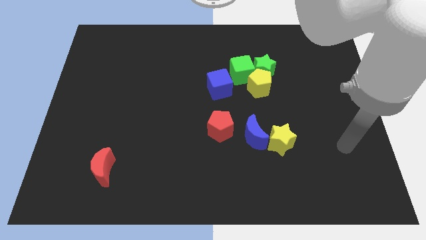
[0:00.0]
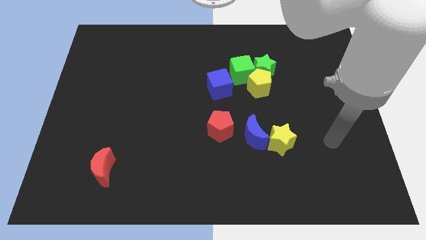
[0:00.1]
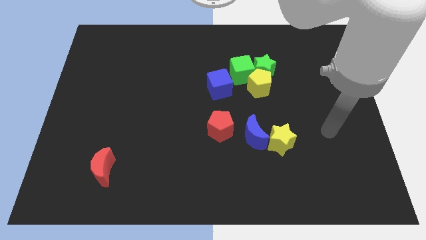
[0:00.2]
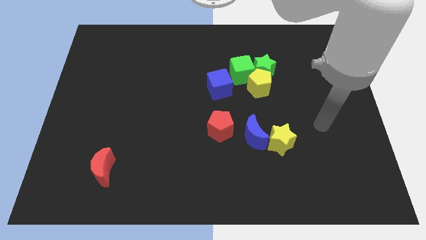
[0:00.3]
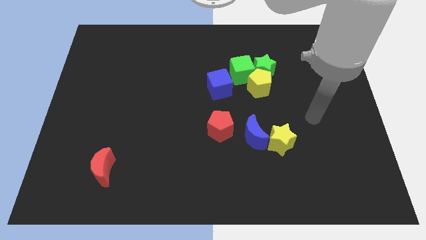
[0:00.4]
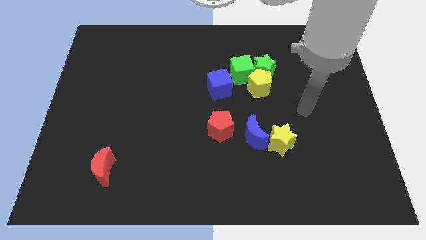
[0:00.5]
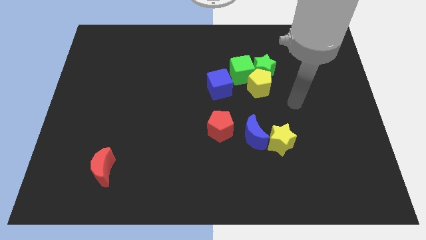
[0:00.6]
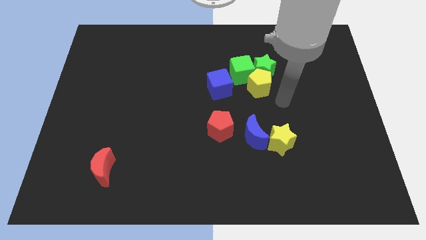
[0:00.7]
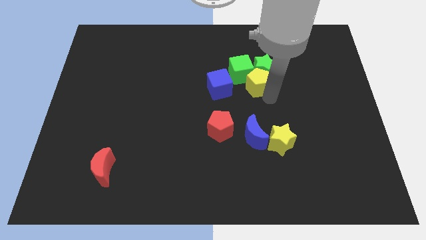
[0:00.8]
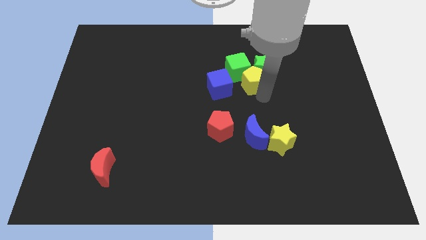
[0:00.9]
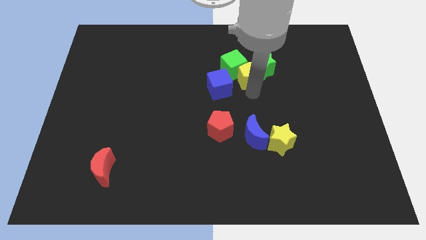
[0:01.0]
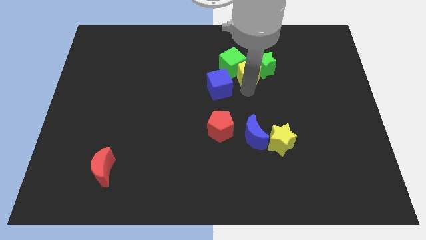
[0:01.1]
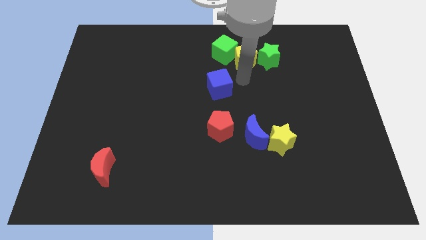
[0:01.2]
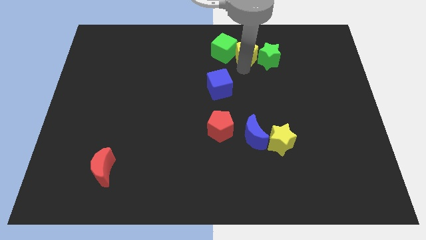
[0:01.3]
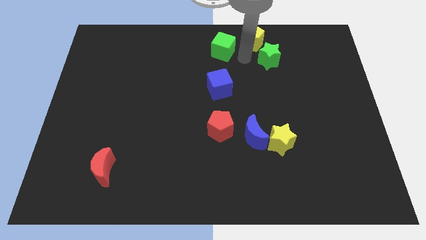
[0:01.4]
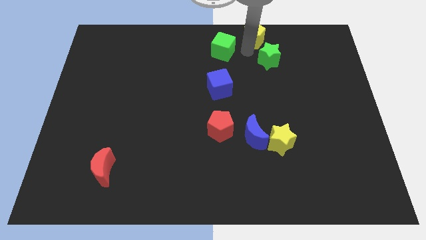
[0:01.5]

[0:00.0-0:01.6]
move the green star away from the yellow pentagon and green cube

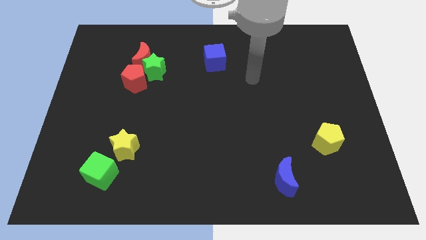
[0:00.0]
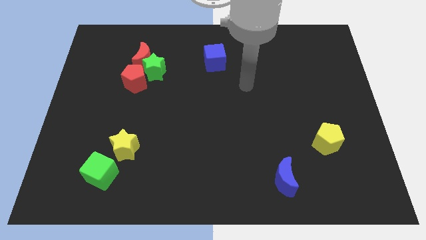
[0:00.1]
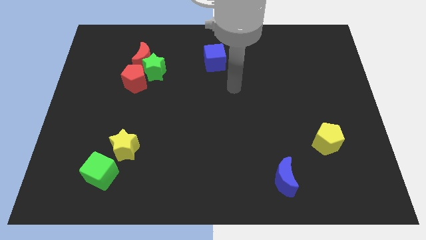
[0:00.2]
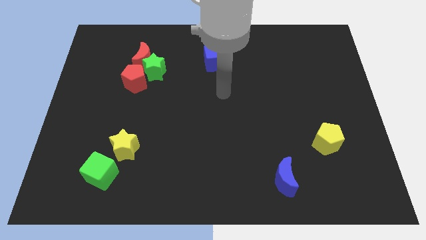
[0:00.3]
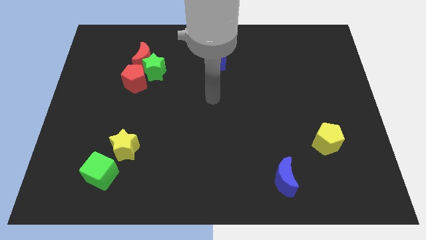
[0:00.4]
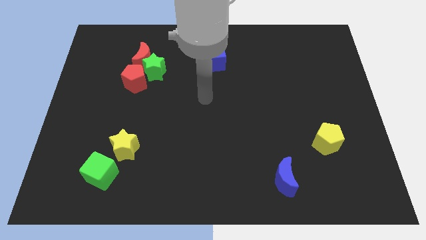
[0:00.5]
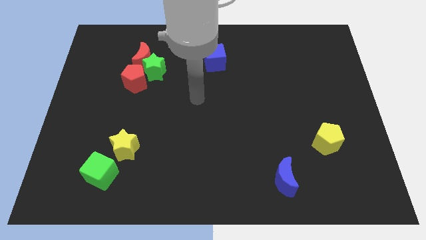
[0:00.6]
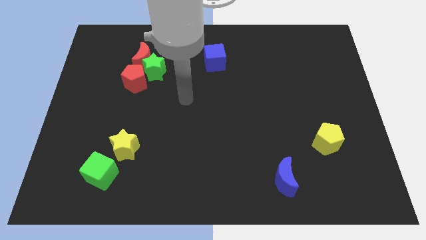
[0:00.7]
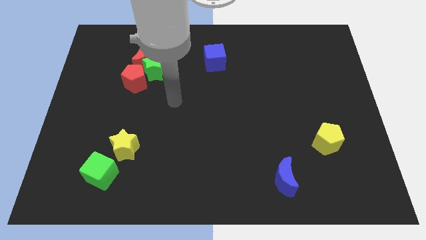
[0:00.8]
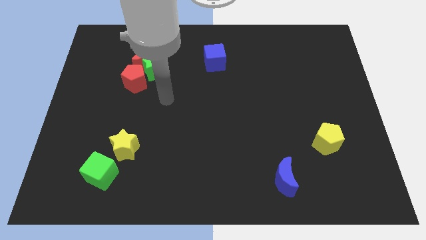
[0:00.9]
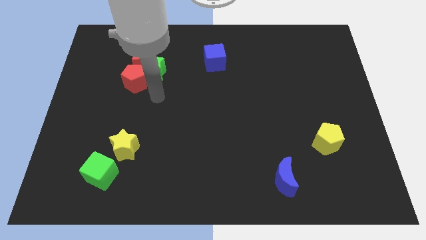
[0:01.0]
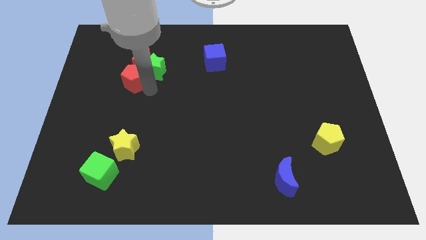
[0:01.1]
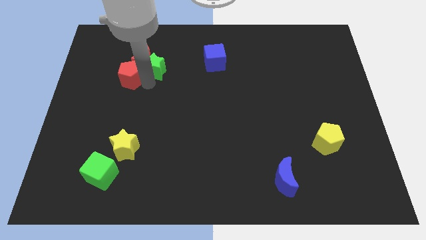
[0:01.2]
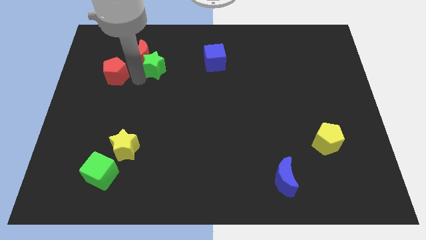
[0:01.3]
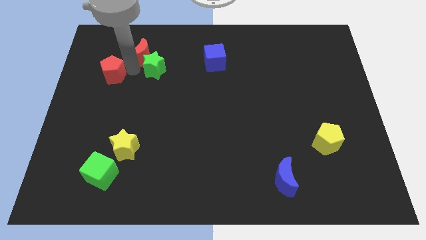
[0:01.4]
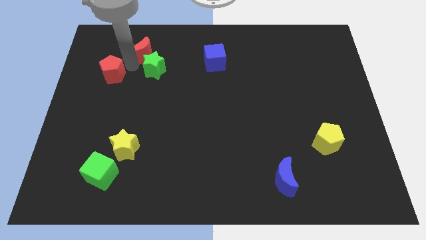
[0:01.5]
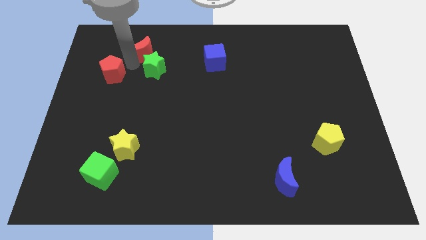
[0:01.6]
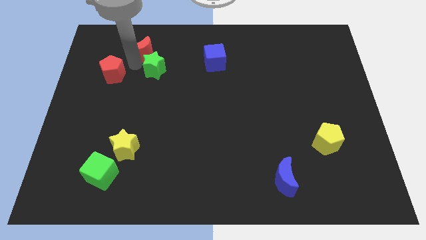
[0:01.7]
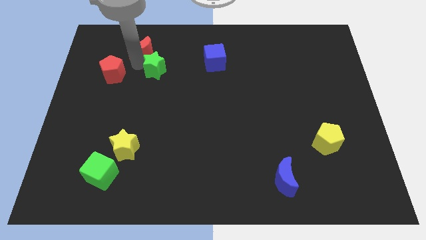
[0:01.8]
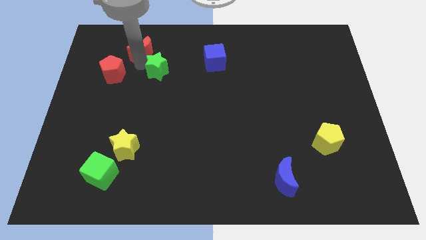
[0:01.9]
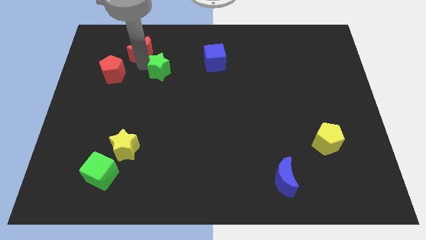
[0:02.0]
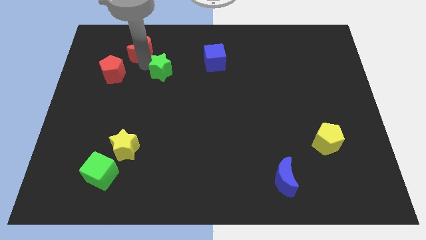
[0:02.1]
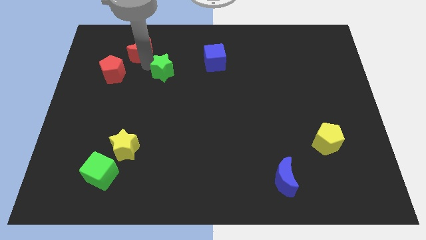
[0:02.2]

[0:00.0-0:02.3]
move the green star away from the red moon and red pentagon

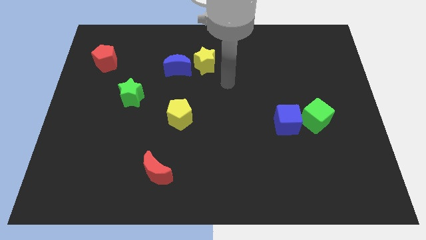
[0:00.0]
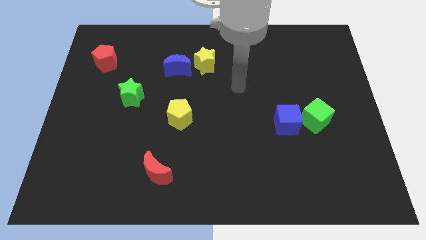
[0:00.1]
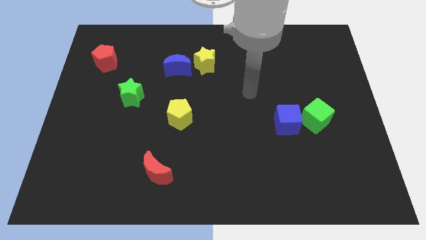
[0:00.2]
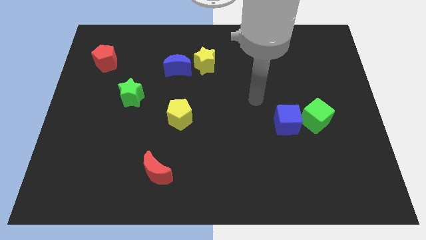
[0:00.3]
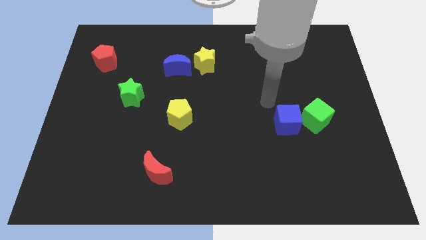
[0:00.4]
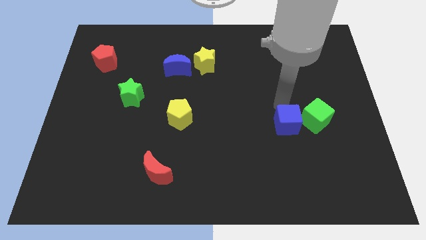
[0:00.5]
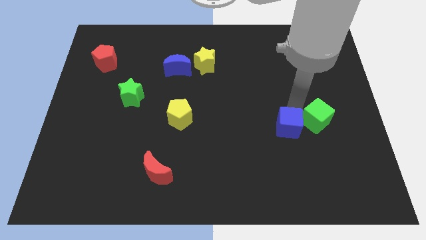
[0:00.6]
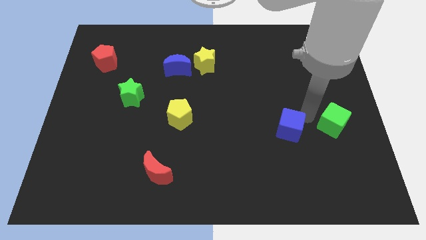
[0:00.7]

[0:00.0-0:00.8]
separate the blue cube from the green cube

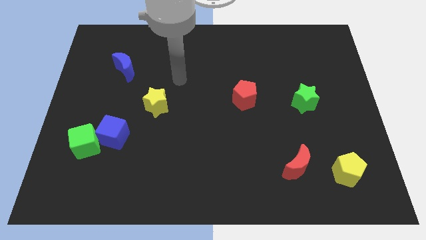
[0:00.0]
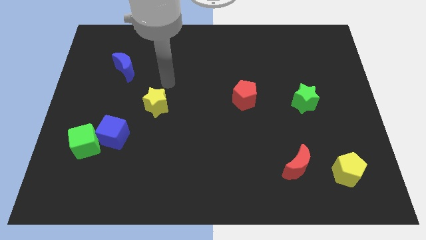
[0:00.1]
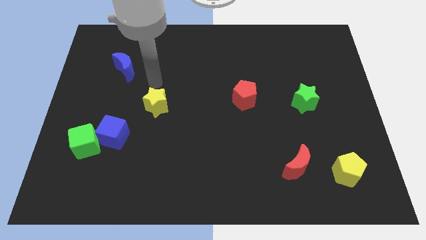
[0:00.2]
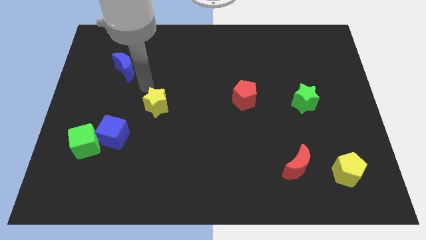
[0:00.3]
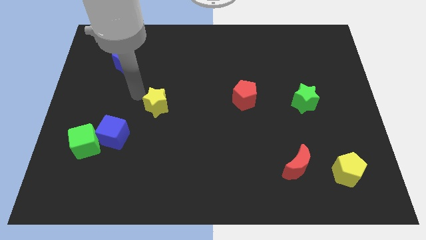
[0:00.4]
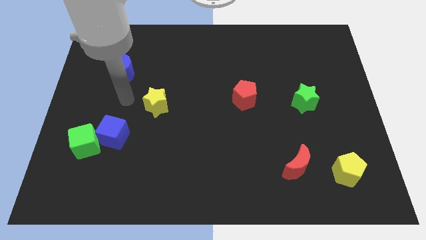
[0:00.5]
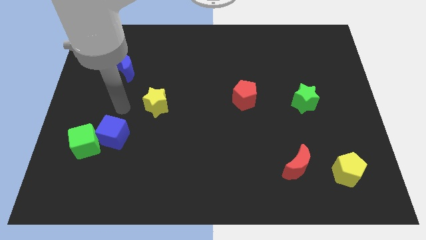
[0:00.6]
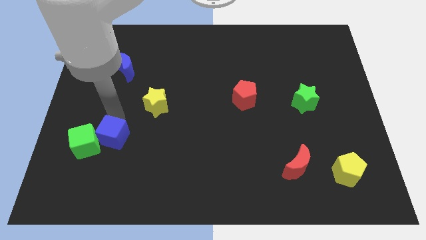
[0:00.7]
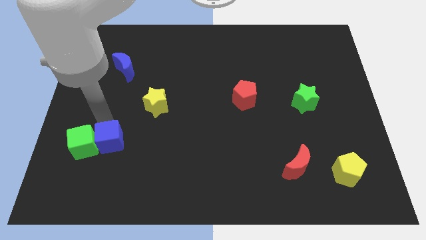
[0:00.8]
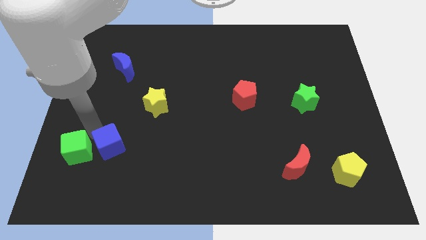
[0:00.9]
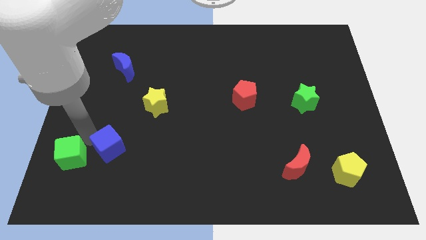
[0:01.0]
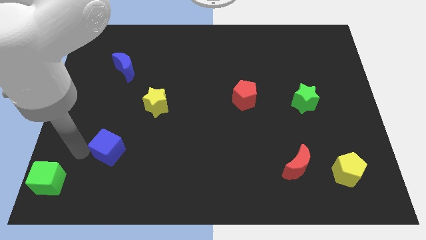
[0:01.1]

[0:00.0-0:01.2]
pull the blue cube apart from the green cube

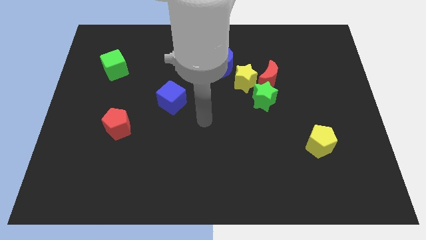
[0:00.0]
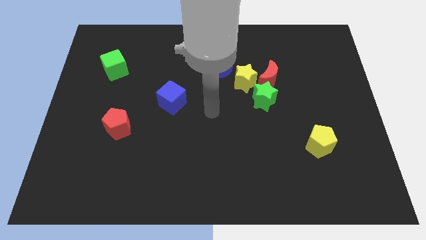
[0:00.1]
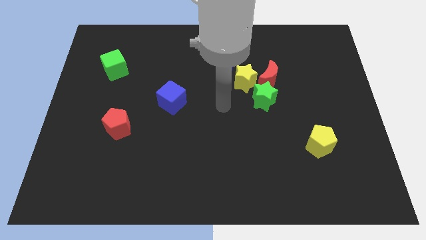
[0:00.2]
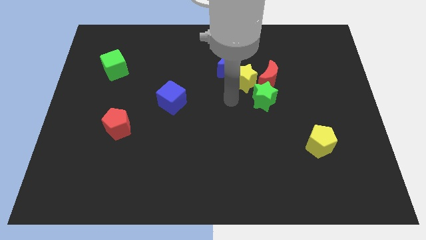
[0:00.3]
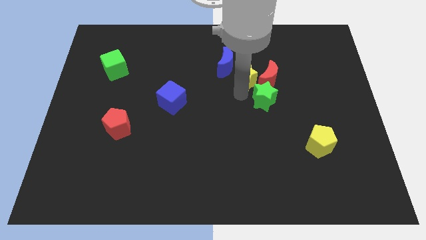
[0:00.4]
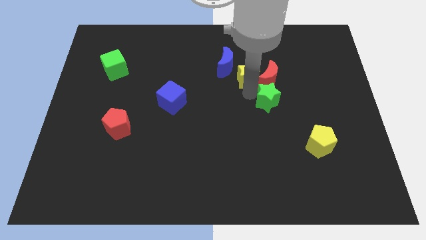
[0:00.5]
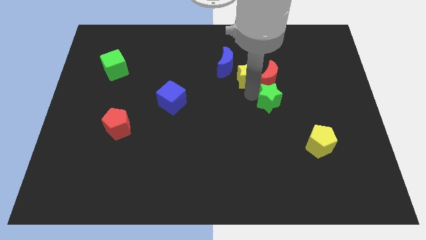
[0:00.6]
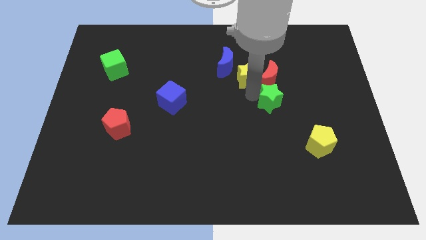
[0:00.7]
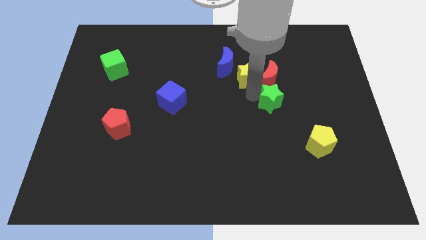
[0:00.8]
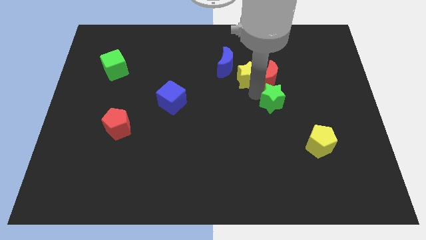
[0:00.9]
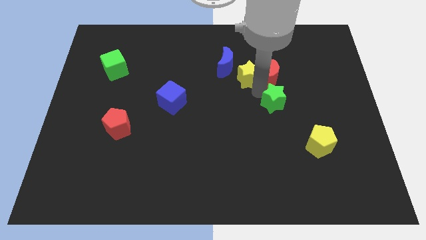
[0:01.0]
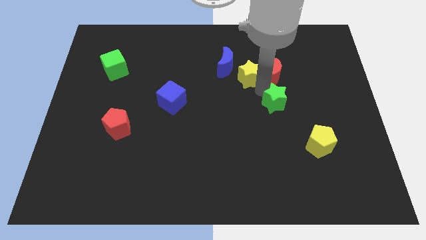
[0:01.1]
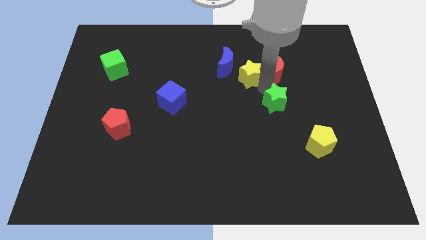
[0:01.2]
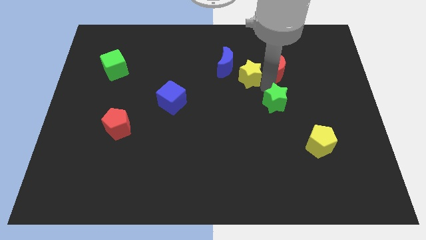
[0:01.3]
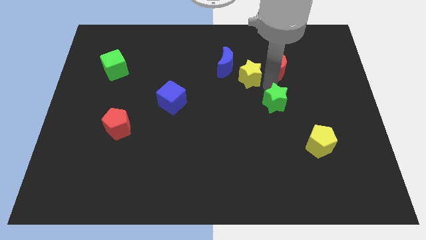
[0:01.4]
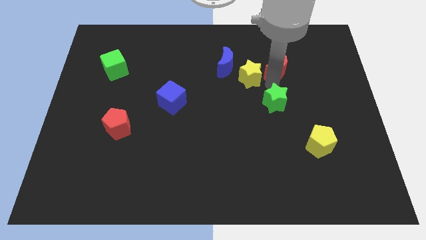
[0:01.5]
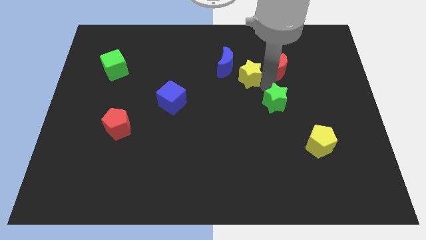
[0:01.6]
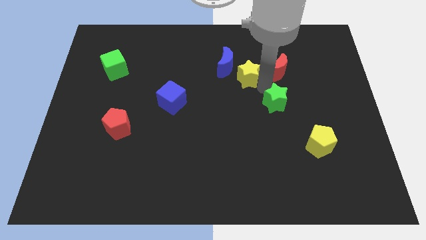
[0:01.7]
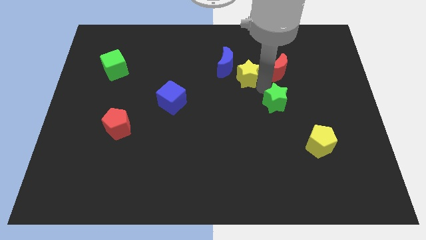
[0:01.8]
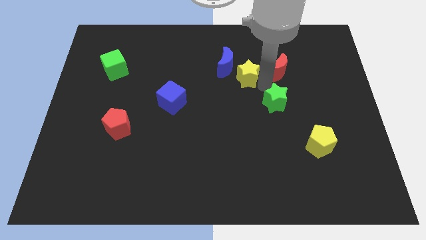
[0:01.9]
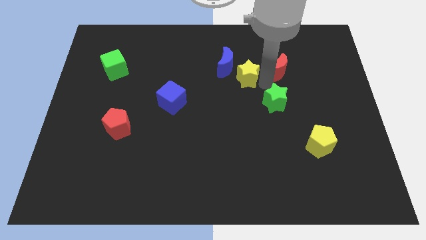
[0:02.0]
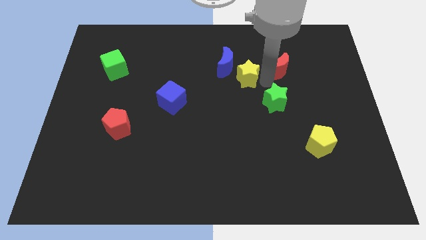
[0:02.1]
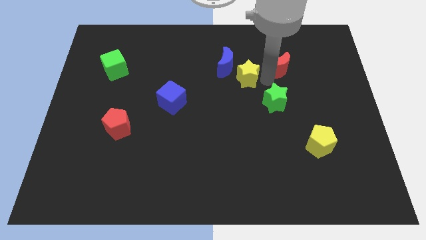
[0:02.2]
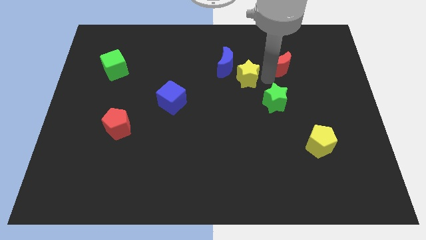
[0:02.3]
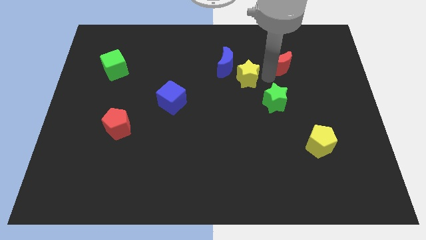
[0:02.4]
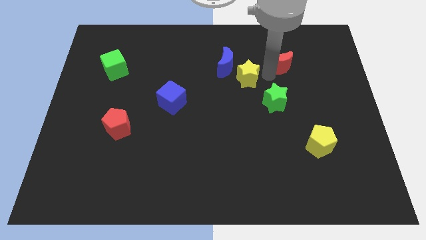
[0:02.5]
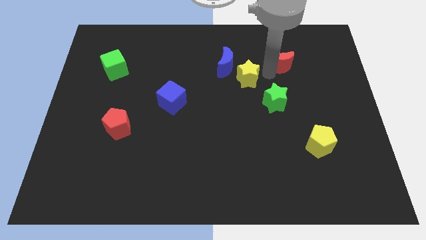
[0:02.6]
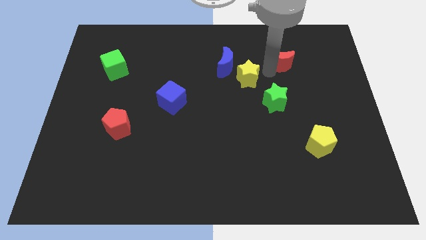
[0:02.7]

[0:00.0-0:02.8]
move the red moon away from the yellow star and green star

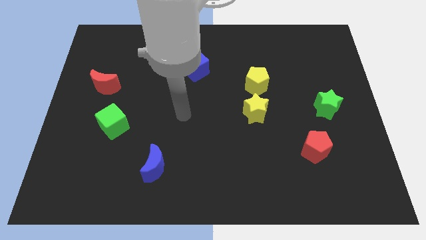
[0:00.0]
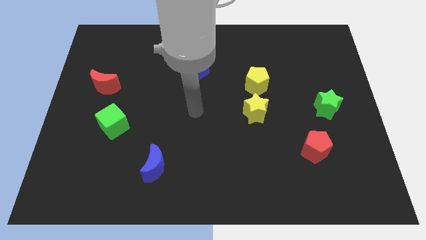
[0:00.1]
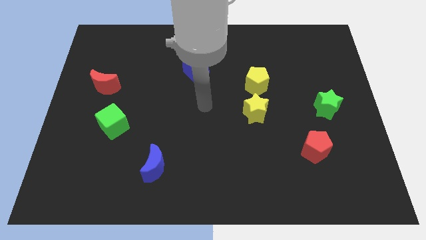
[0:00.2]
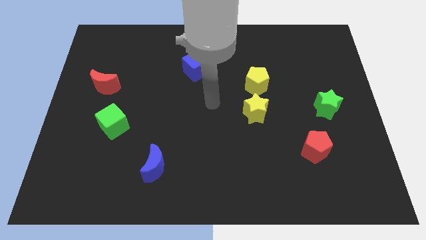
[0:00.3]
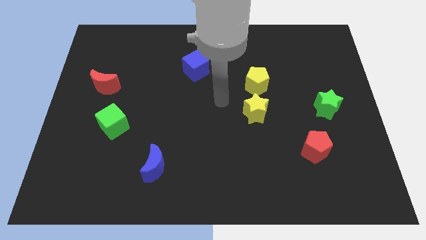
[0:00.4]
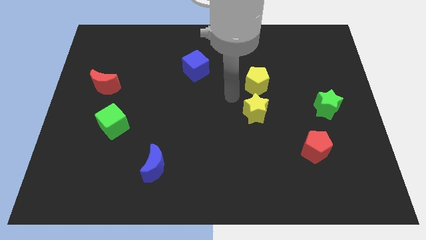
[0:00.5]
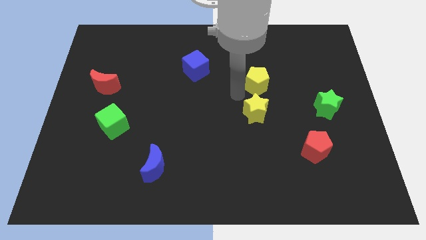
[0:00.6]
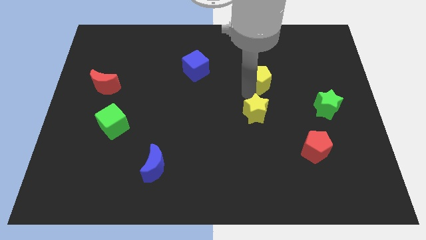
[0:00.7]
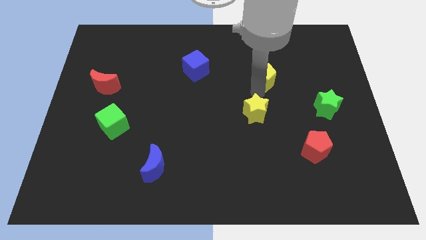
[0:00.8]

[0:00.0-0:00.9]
pull the yellow star apart from the yellow pentagon
